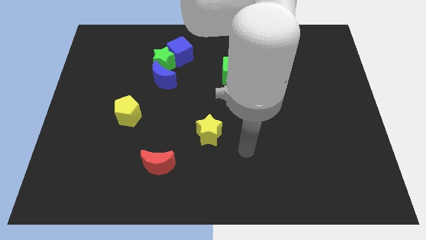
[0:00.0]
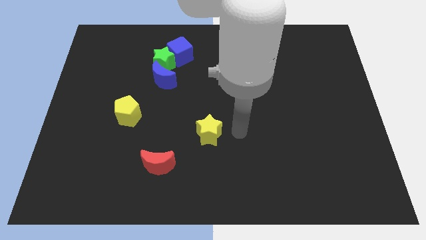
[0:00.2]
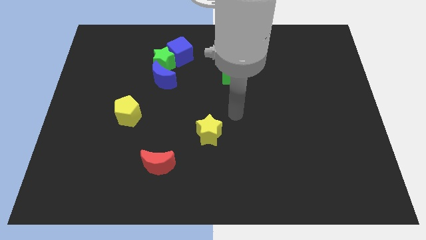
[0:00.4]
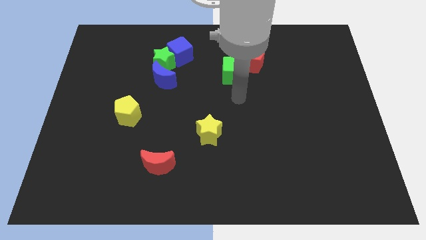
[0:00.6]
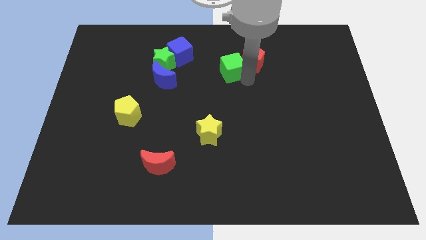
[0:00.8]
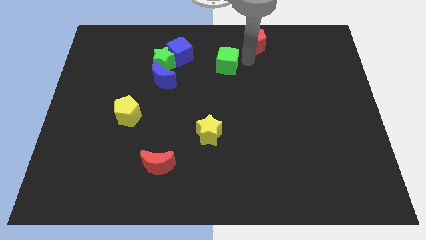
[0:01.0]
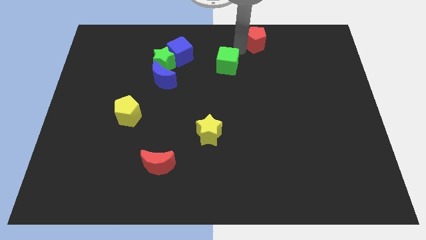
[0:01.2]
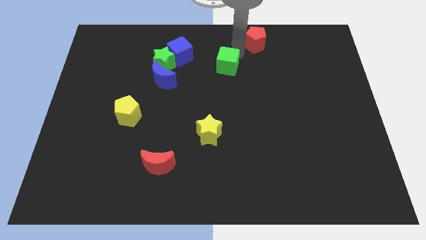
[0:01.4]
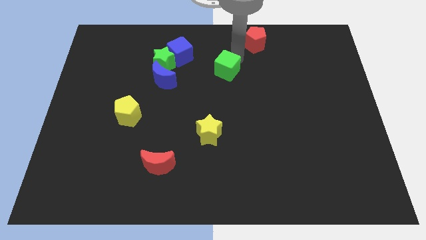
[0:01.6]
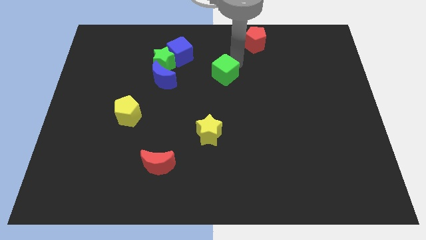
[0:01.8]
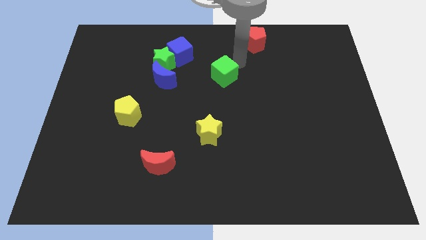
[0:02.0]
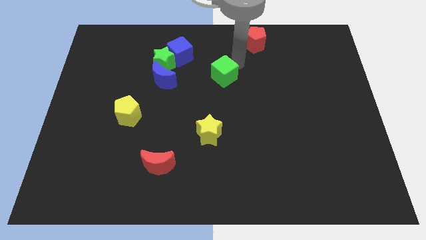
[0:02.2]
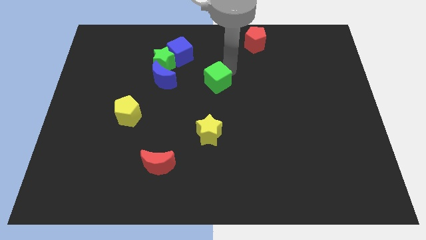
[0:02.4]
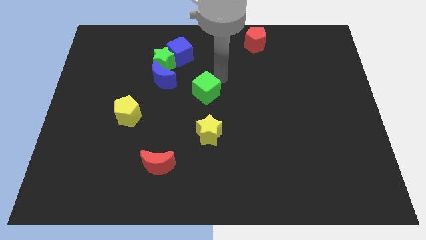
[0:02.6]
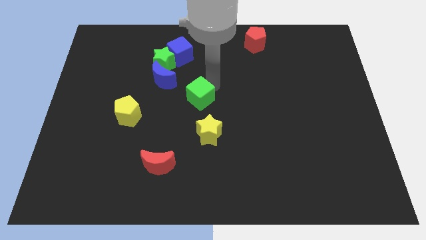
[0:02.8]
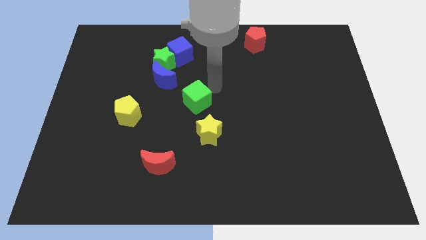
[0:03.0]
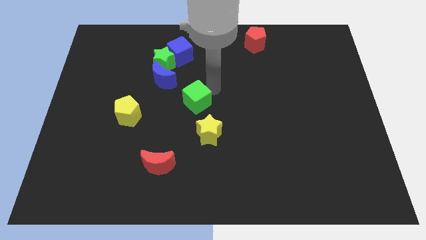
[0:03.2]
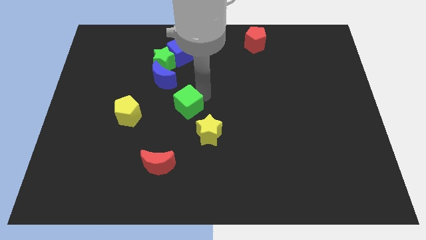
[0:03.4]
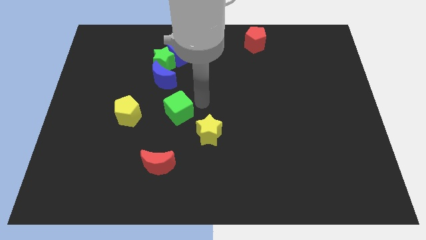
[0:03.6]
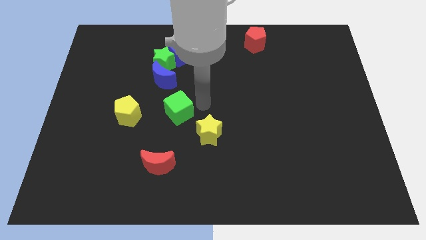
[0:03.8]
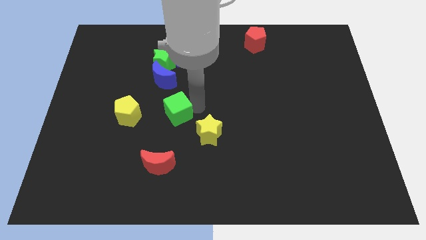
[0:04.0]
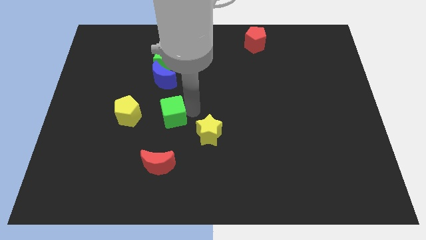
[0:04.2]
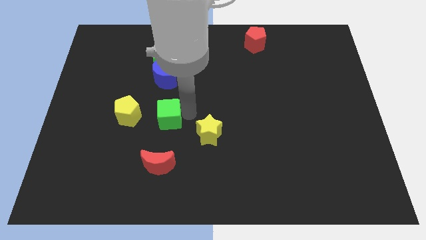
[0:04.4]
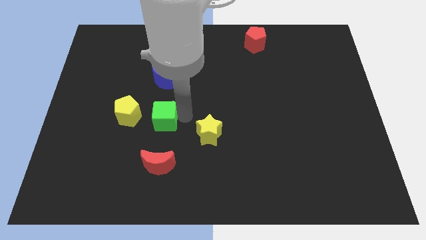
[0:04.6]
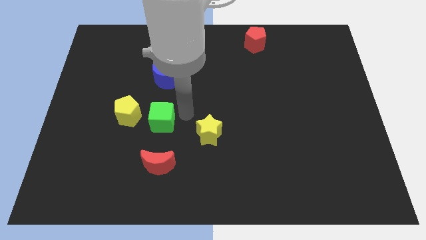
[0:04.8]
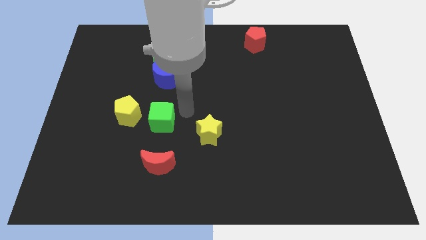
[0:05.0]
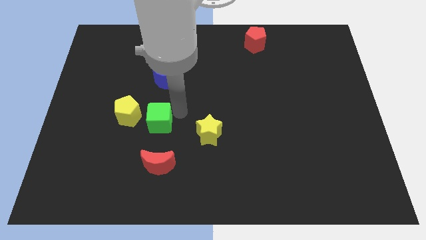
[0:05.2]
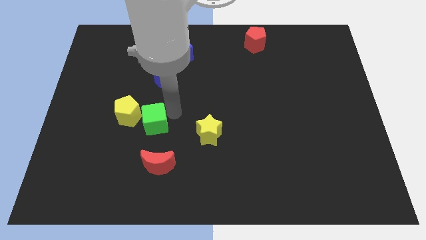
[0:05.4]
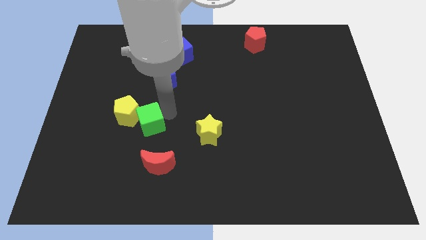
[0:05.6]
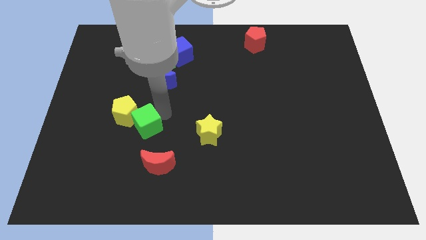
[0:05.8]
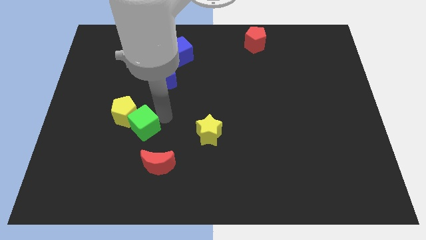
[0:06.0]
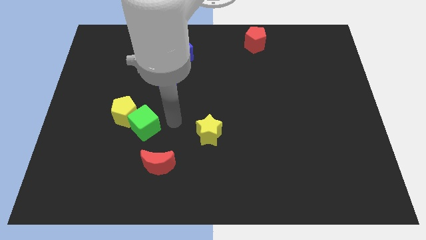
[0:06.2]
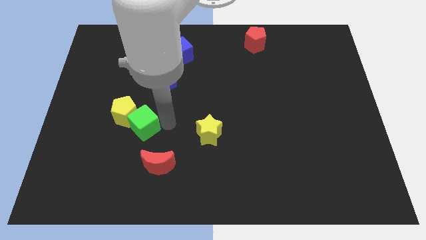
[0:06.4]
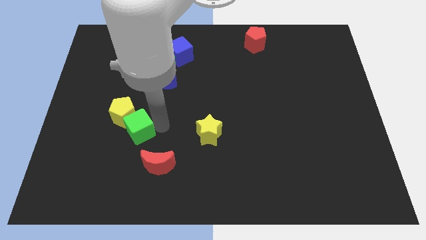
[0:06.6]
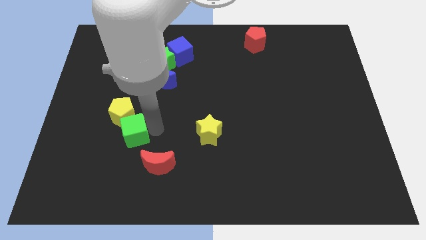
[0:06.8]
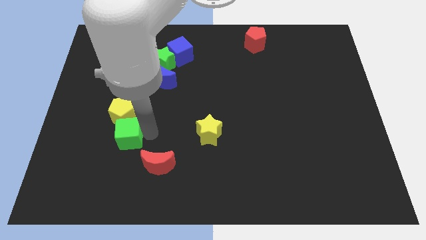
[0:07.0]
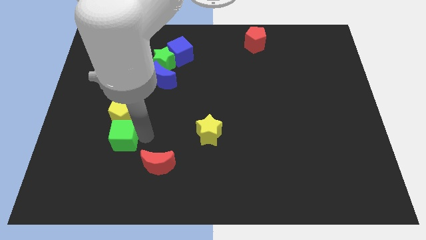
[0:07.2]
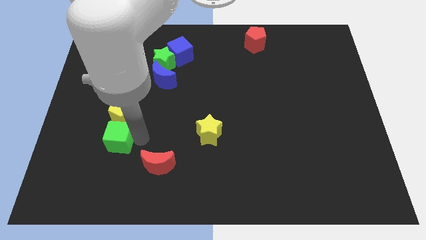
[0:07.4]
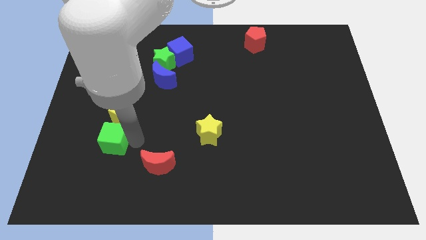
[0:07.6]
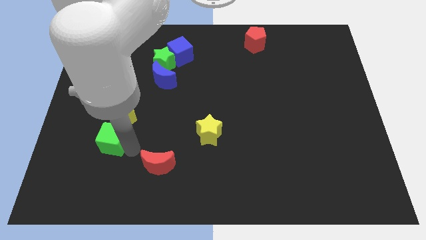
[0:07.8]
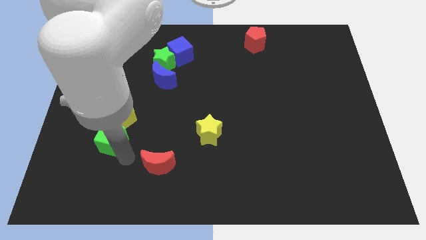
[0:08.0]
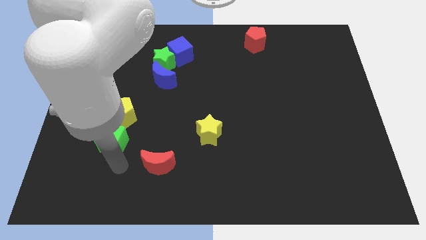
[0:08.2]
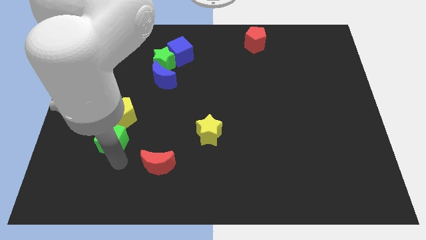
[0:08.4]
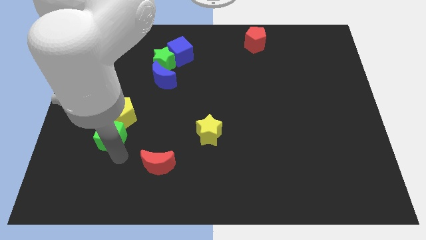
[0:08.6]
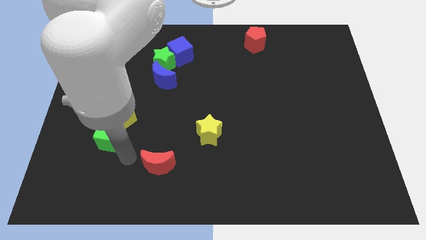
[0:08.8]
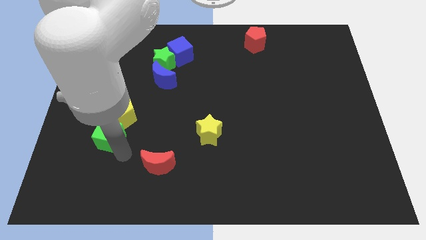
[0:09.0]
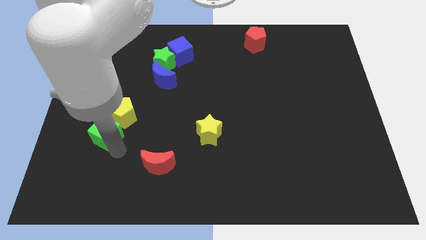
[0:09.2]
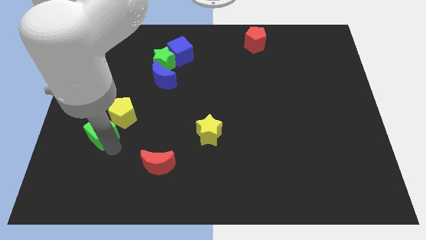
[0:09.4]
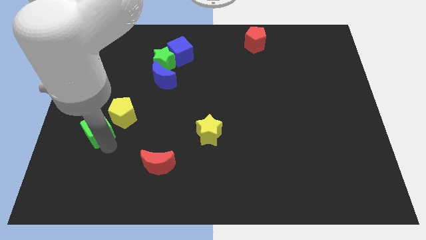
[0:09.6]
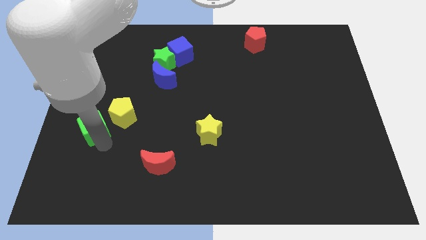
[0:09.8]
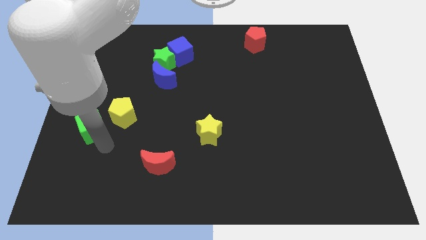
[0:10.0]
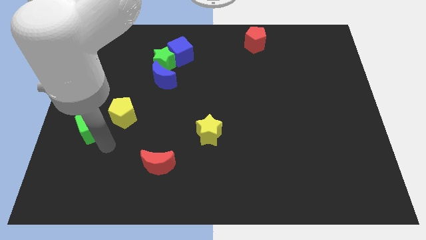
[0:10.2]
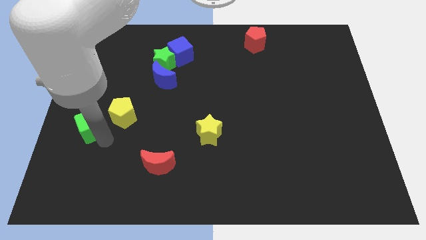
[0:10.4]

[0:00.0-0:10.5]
slide the green cube to the left side

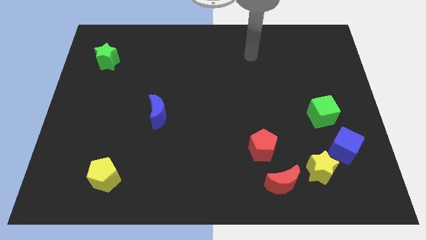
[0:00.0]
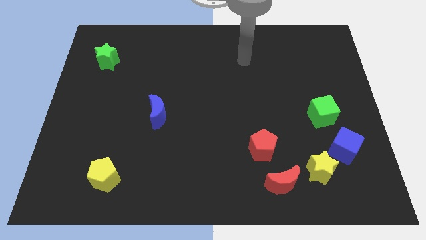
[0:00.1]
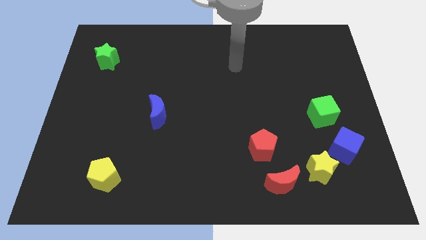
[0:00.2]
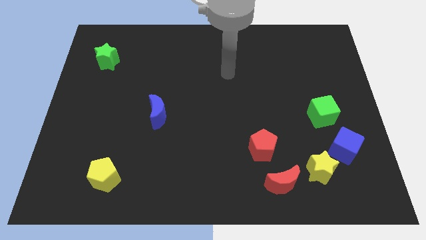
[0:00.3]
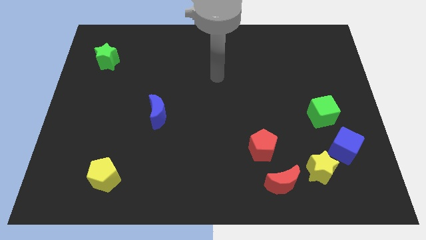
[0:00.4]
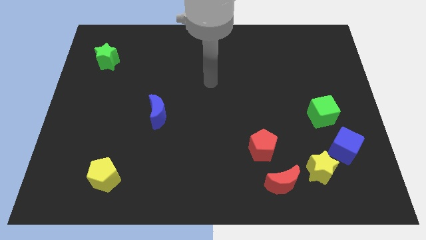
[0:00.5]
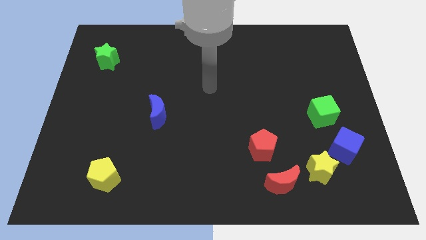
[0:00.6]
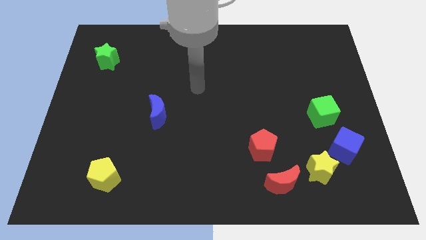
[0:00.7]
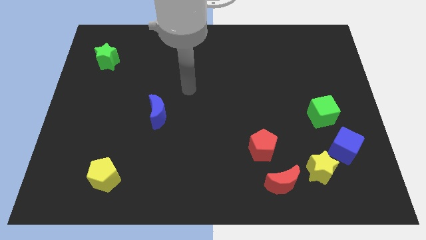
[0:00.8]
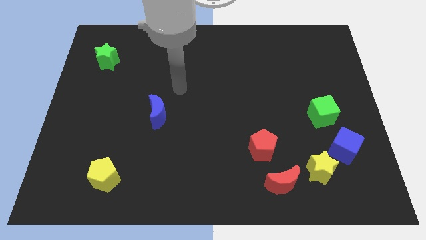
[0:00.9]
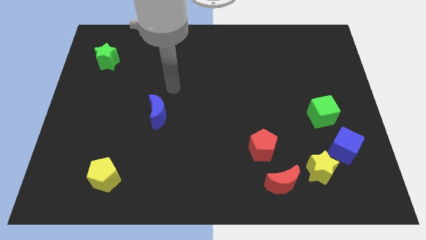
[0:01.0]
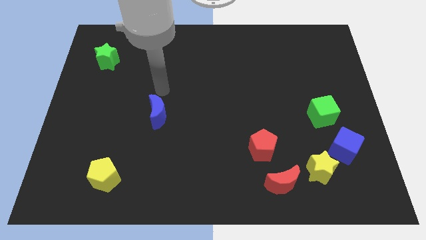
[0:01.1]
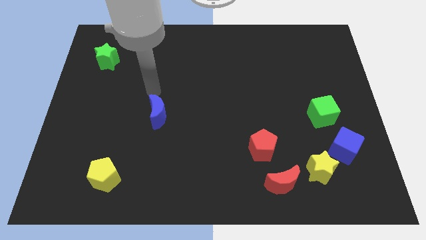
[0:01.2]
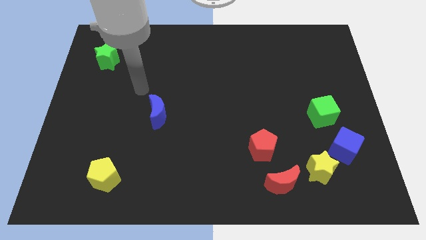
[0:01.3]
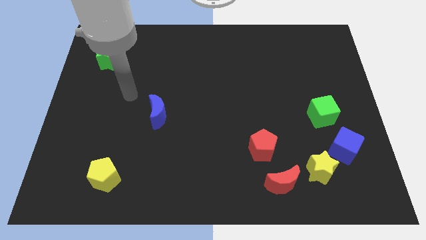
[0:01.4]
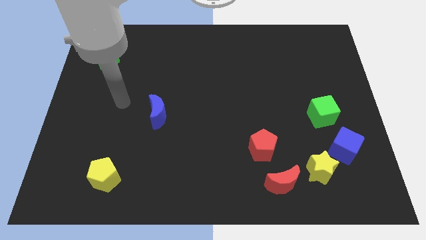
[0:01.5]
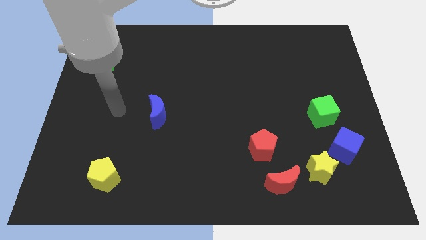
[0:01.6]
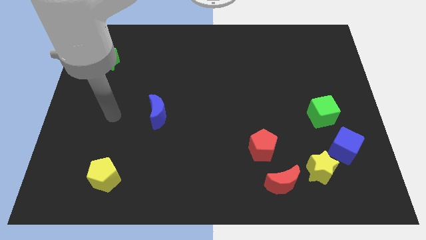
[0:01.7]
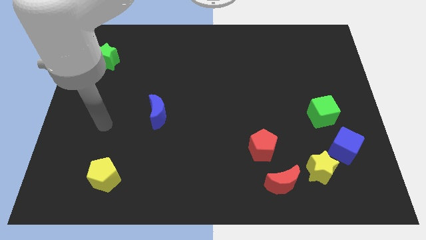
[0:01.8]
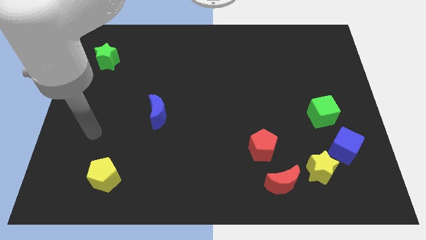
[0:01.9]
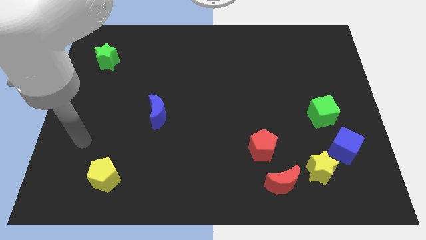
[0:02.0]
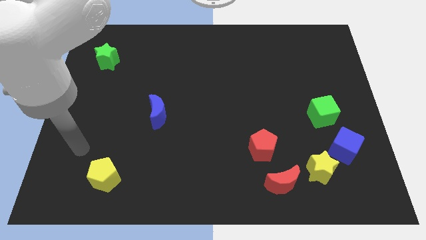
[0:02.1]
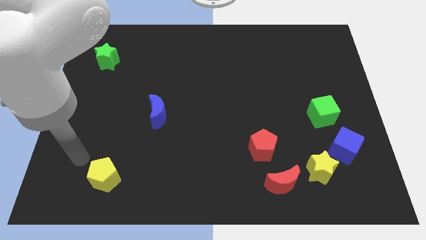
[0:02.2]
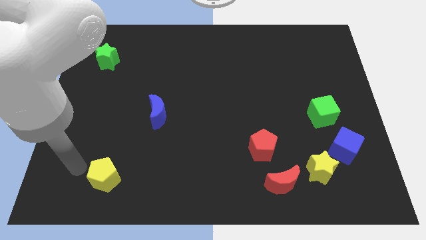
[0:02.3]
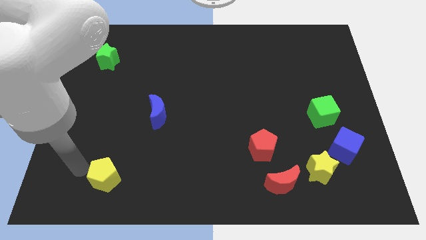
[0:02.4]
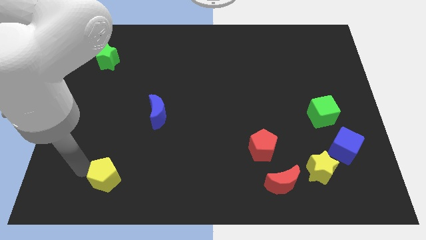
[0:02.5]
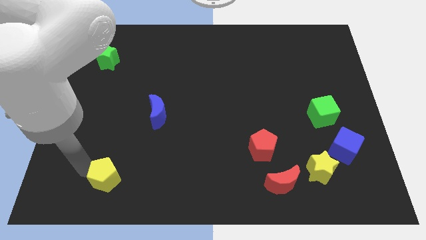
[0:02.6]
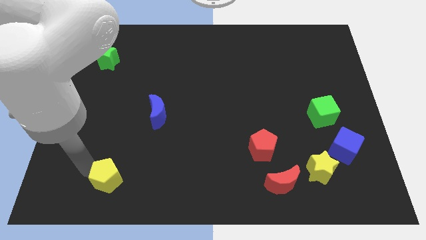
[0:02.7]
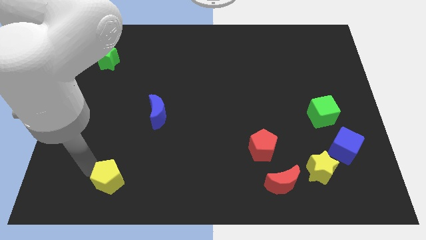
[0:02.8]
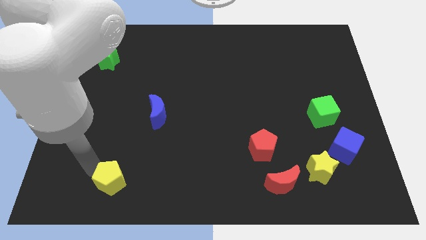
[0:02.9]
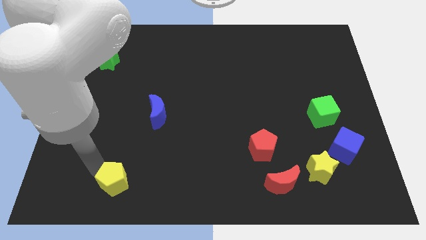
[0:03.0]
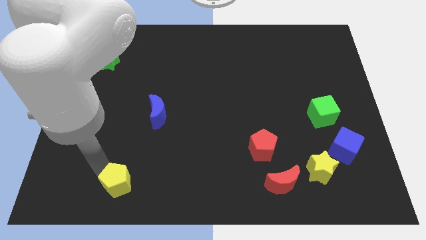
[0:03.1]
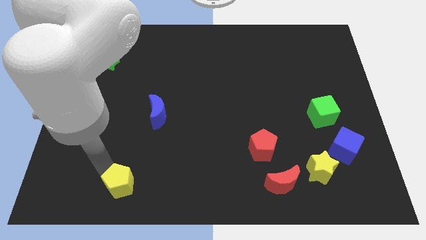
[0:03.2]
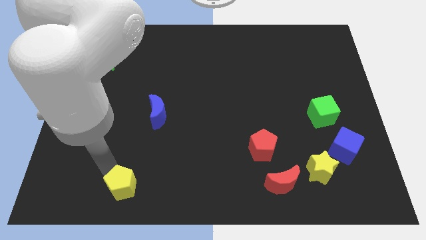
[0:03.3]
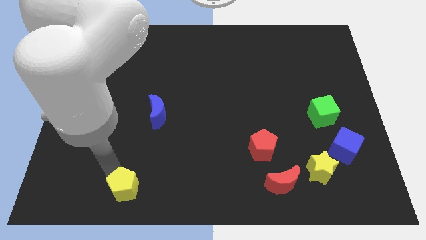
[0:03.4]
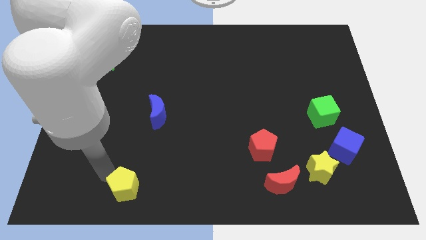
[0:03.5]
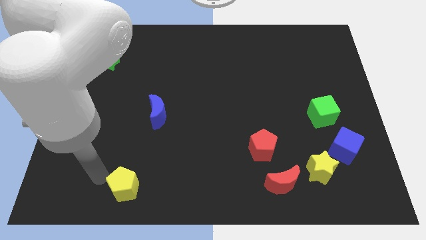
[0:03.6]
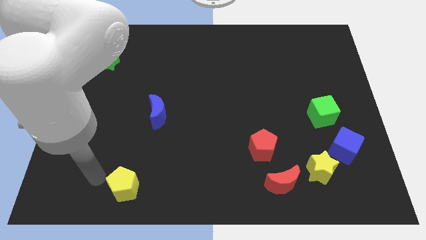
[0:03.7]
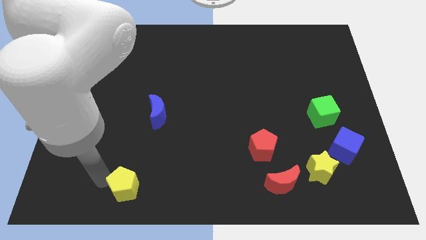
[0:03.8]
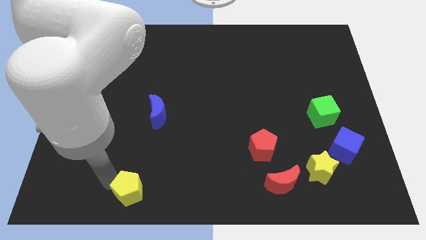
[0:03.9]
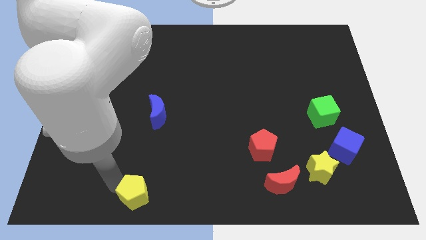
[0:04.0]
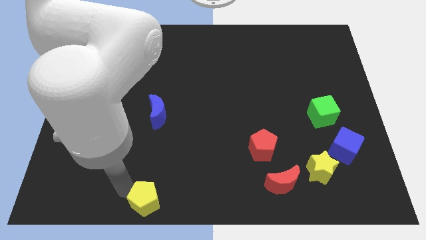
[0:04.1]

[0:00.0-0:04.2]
slide the yellow pentagon to the bottom side
